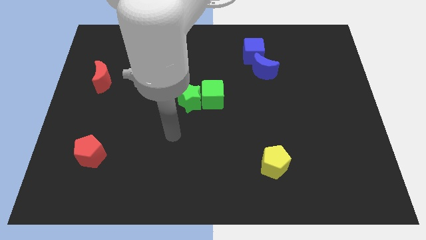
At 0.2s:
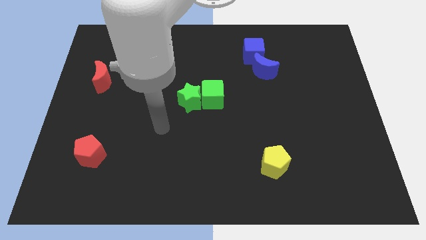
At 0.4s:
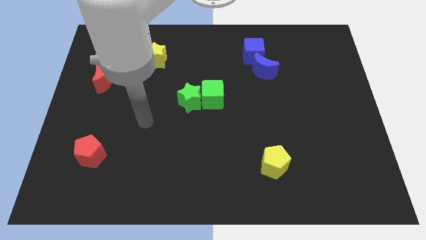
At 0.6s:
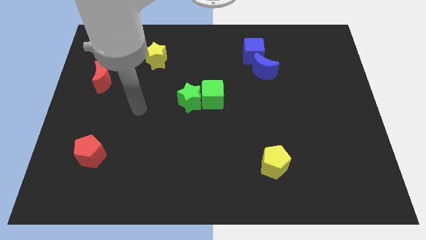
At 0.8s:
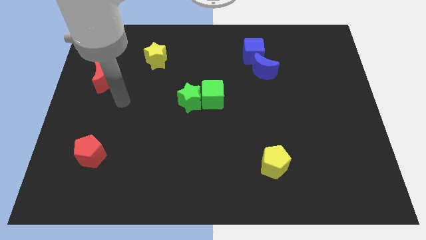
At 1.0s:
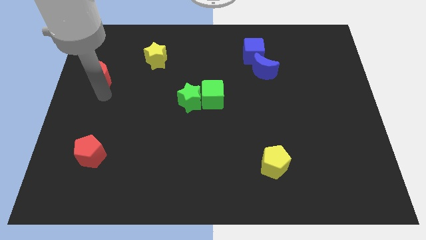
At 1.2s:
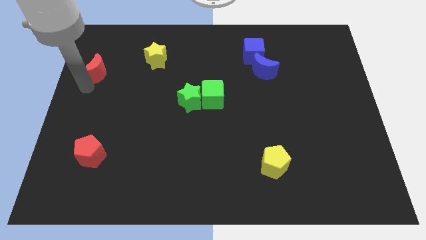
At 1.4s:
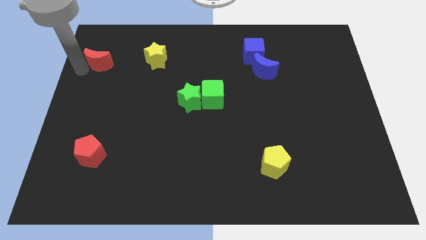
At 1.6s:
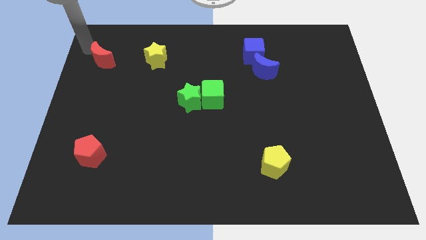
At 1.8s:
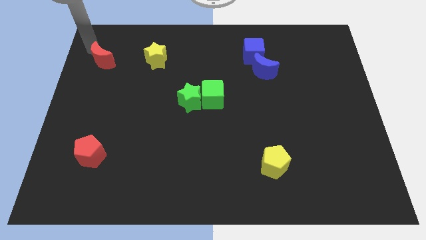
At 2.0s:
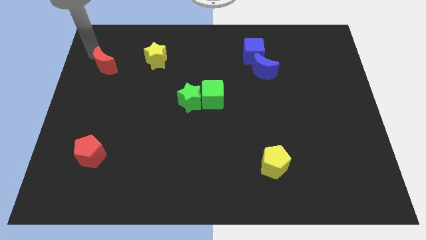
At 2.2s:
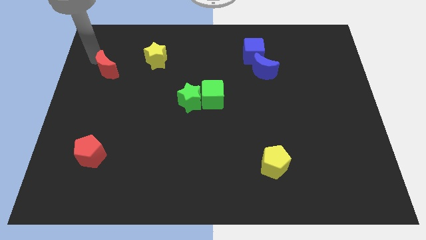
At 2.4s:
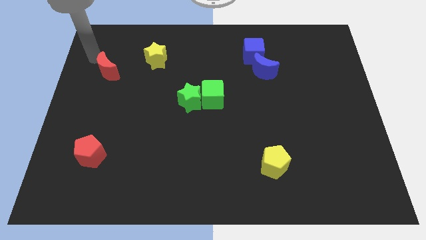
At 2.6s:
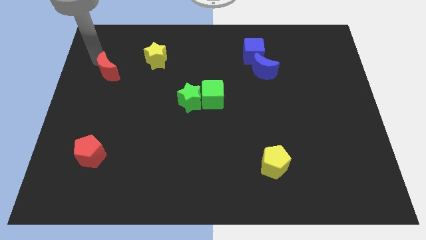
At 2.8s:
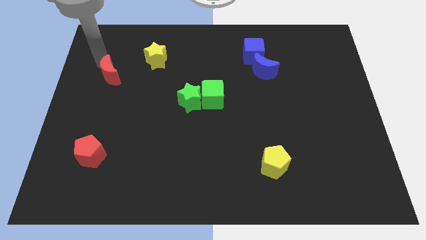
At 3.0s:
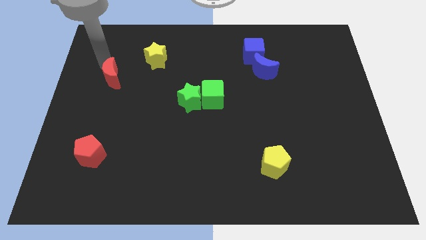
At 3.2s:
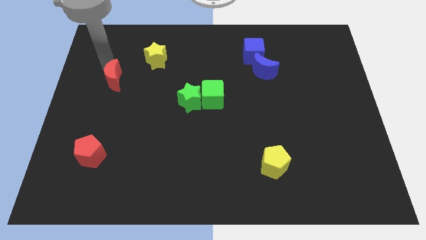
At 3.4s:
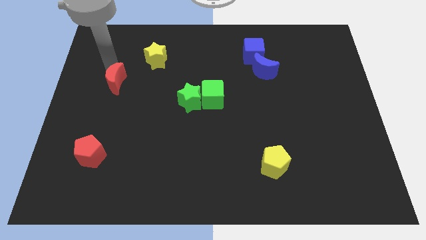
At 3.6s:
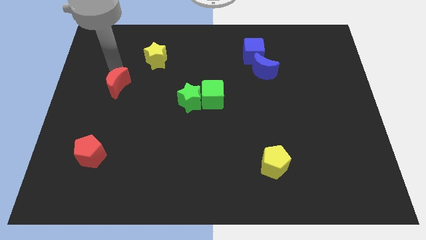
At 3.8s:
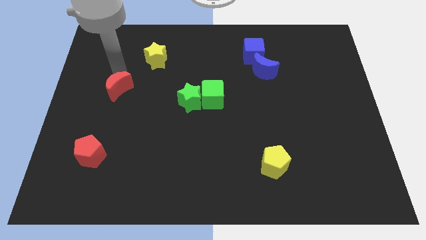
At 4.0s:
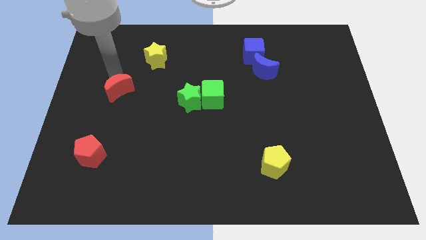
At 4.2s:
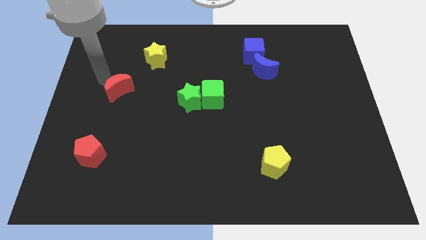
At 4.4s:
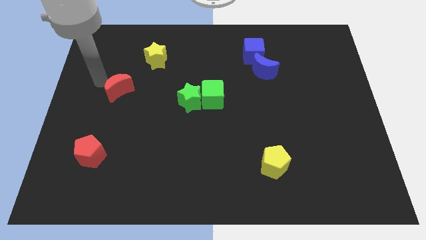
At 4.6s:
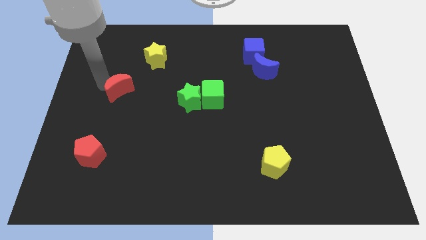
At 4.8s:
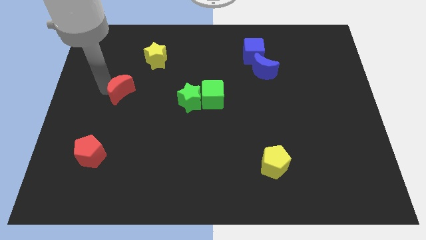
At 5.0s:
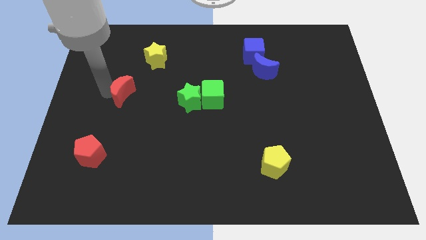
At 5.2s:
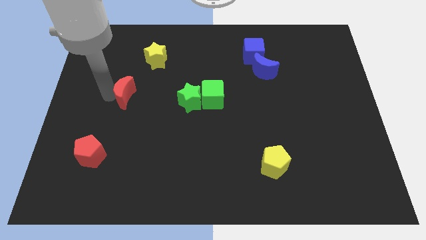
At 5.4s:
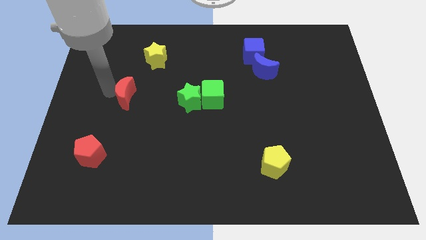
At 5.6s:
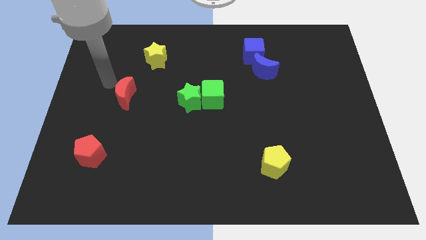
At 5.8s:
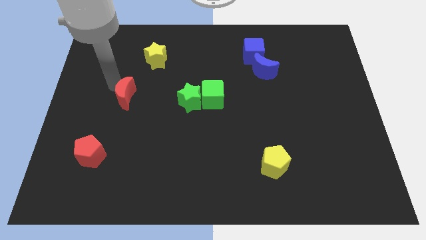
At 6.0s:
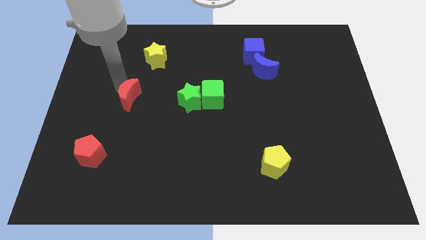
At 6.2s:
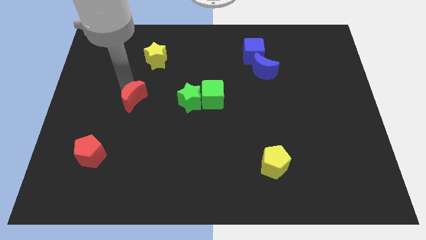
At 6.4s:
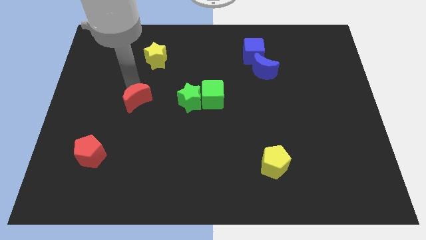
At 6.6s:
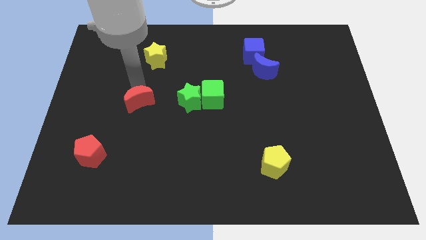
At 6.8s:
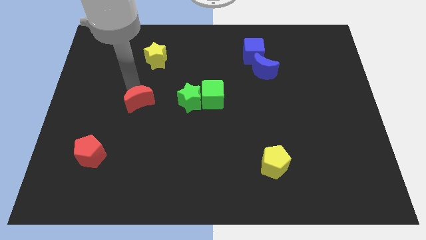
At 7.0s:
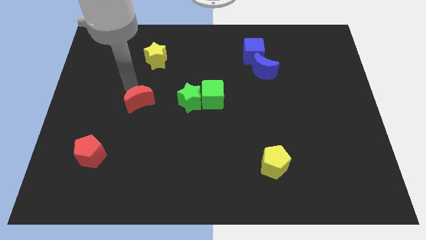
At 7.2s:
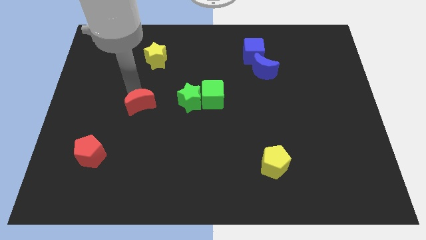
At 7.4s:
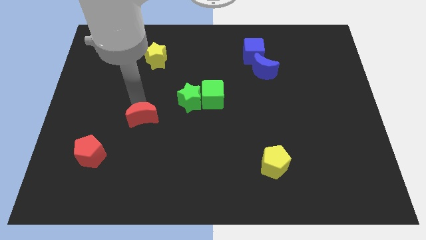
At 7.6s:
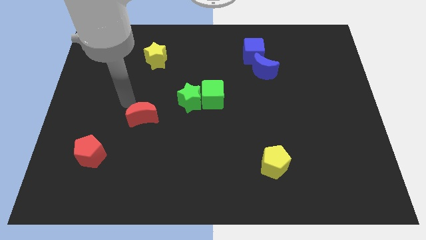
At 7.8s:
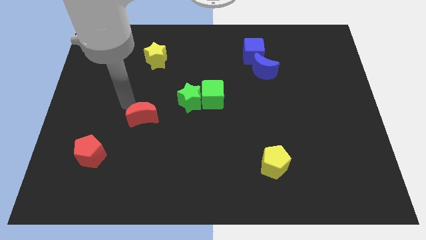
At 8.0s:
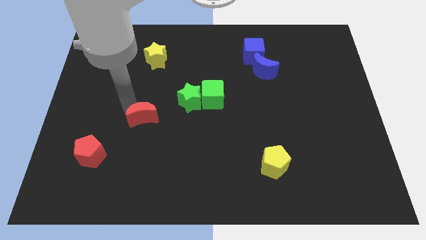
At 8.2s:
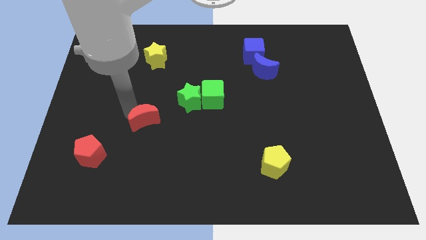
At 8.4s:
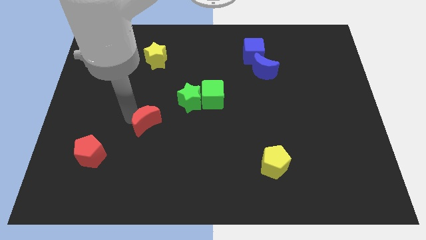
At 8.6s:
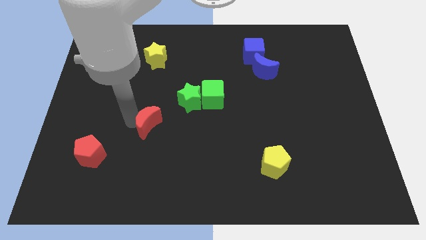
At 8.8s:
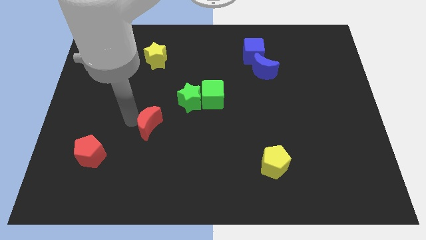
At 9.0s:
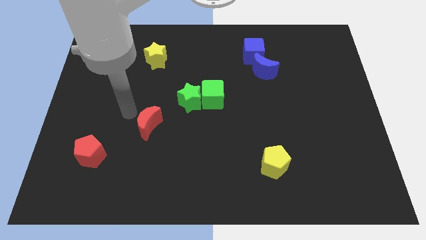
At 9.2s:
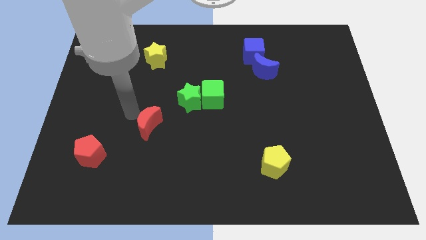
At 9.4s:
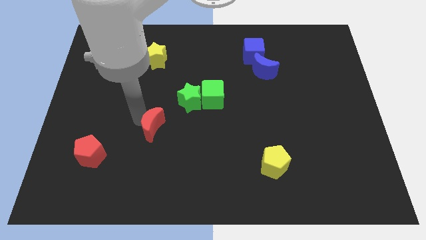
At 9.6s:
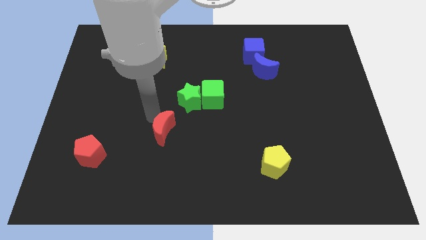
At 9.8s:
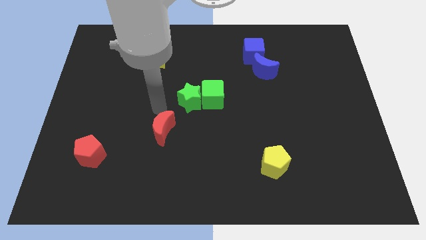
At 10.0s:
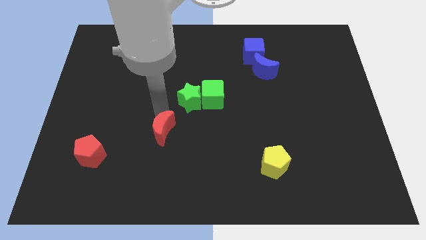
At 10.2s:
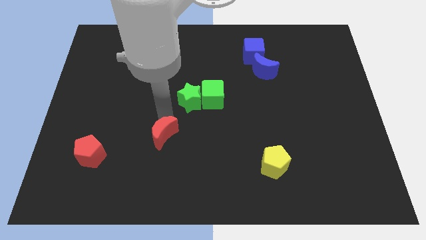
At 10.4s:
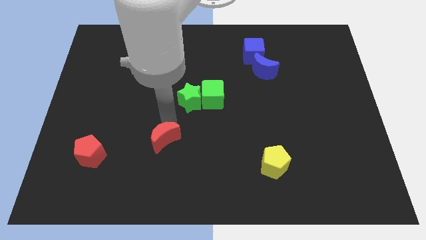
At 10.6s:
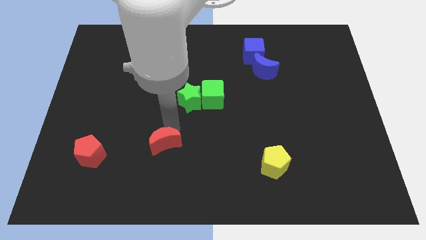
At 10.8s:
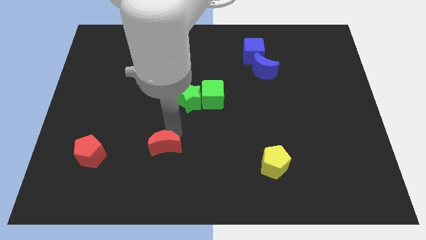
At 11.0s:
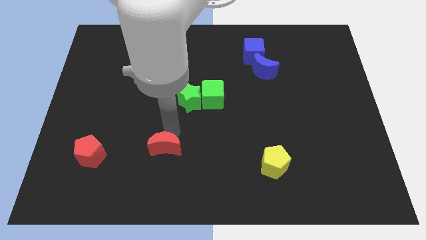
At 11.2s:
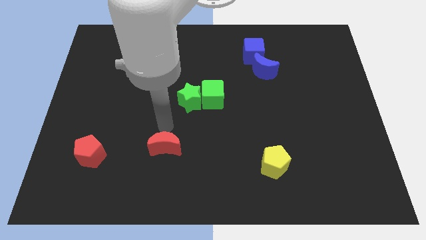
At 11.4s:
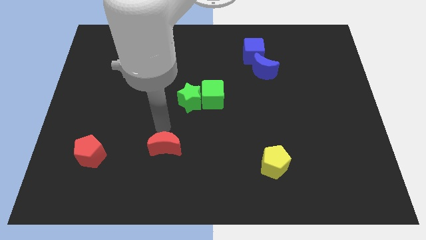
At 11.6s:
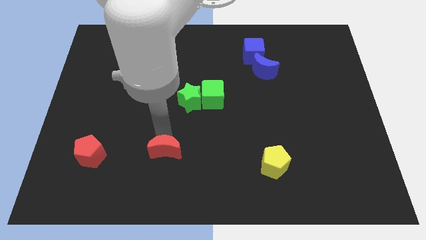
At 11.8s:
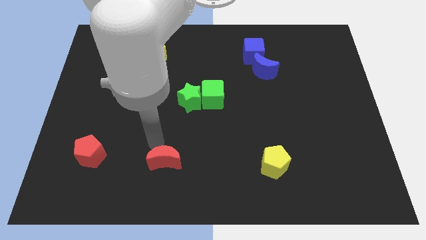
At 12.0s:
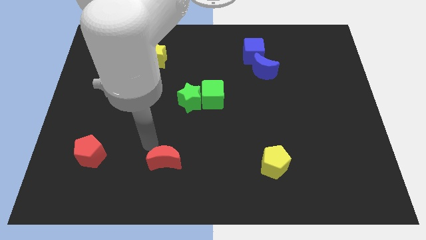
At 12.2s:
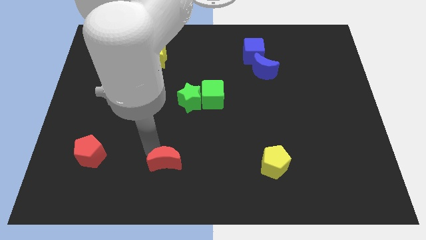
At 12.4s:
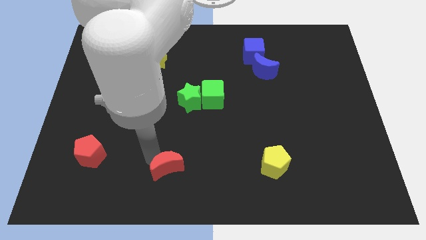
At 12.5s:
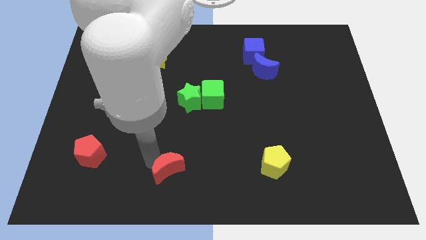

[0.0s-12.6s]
move the red moon to the bottom

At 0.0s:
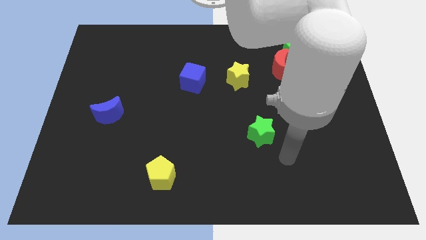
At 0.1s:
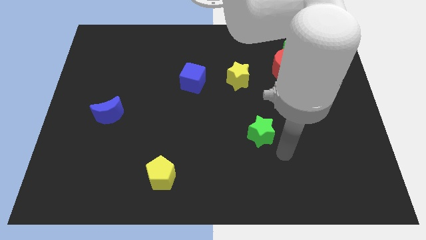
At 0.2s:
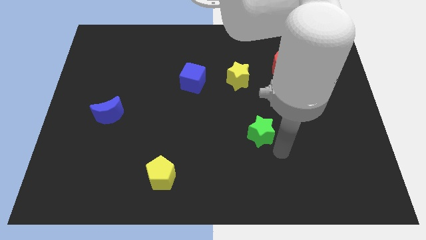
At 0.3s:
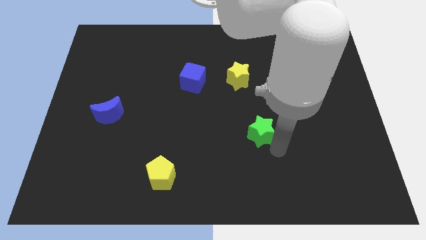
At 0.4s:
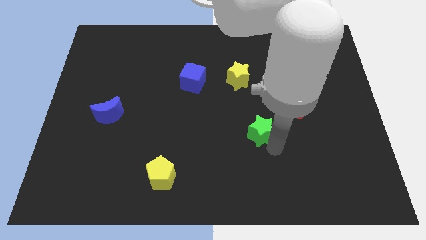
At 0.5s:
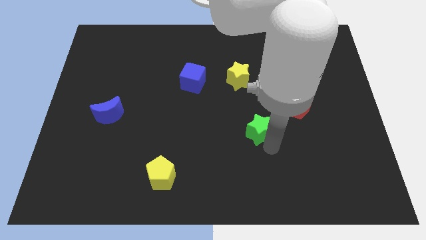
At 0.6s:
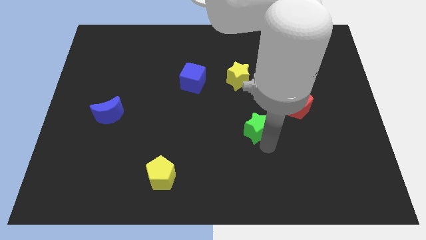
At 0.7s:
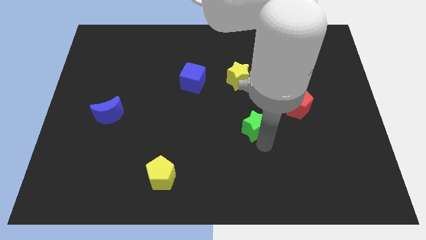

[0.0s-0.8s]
move the green star to the center
